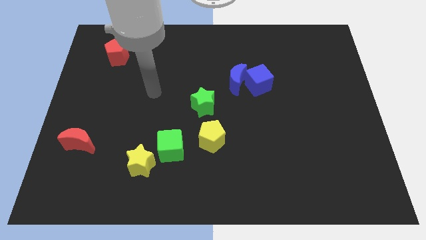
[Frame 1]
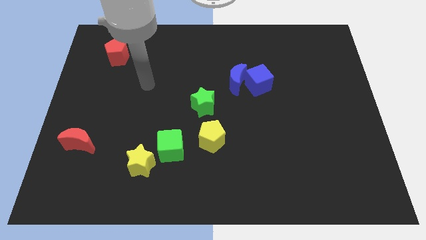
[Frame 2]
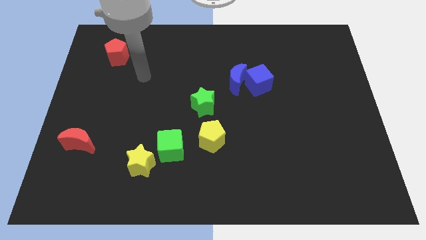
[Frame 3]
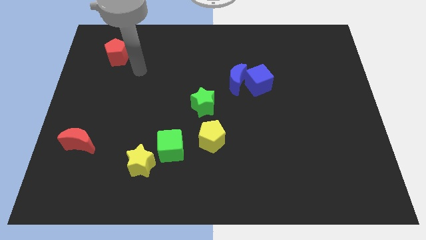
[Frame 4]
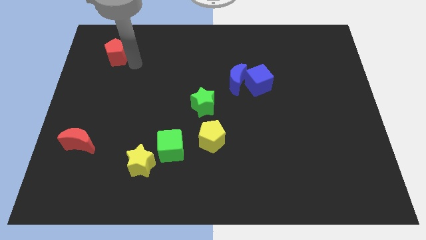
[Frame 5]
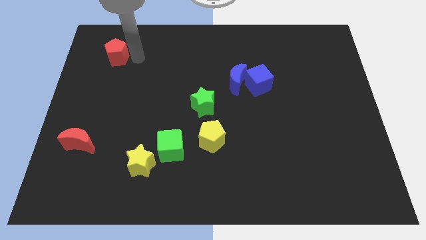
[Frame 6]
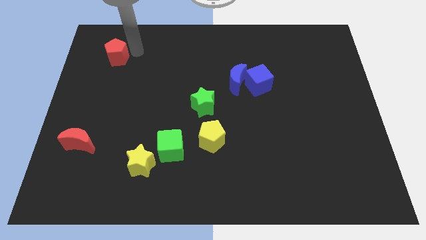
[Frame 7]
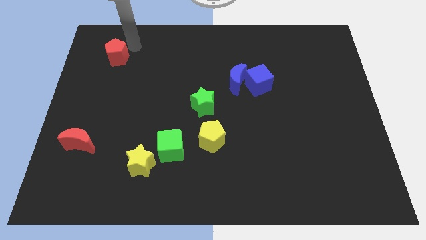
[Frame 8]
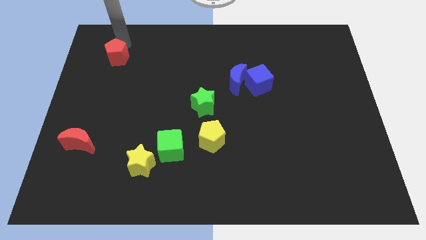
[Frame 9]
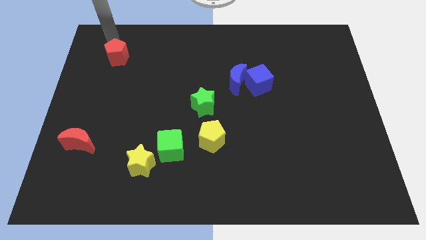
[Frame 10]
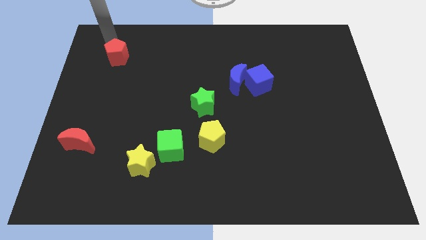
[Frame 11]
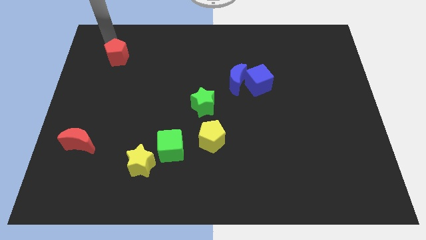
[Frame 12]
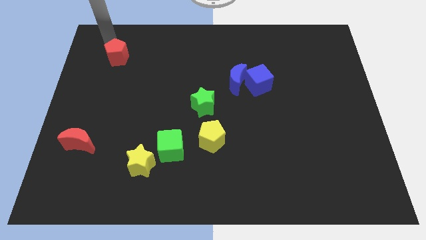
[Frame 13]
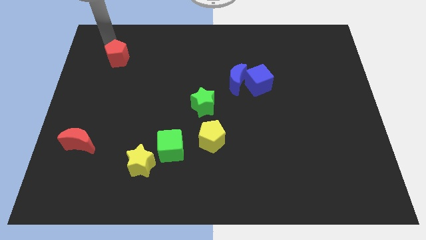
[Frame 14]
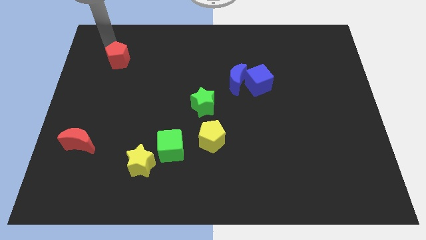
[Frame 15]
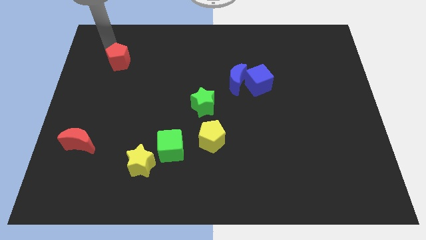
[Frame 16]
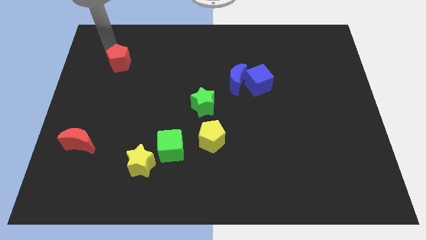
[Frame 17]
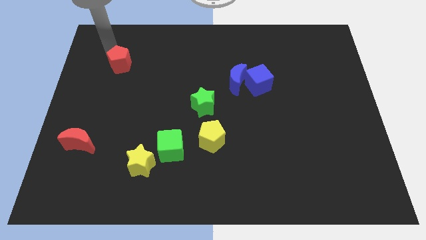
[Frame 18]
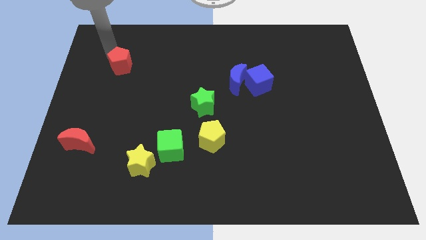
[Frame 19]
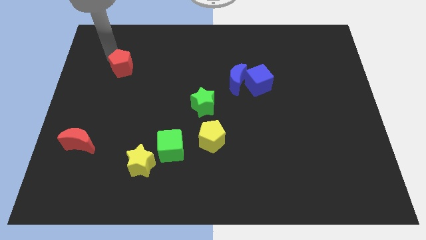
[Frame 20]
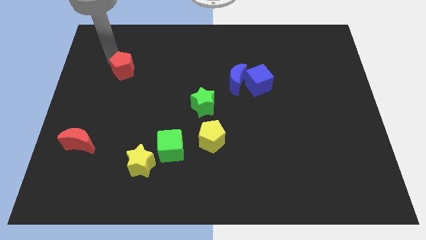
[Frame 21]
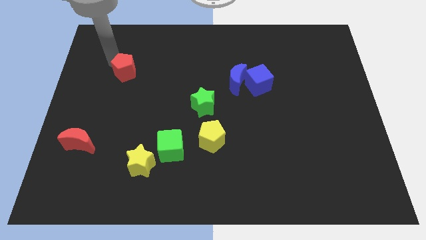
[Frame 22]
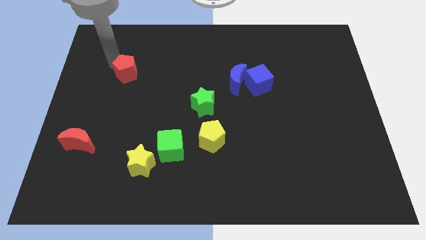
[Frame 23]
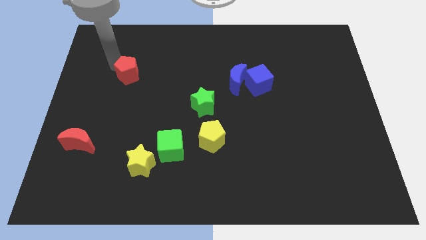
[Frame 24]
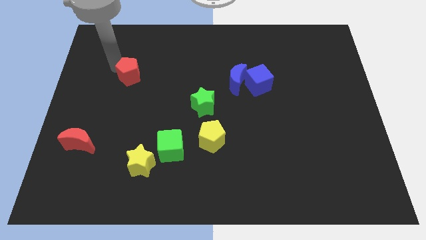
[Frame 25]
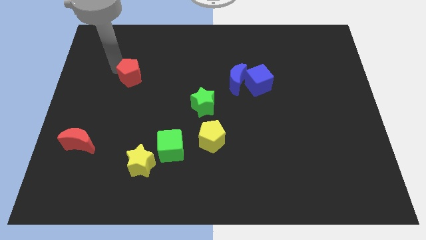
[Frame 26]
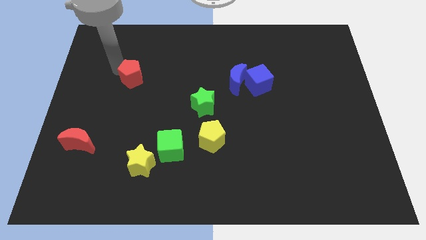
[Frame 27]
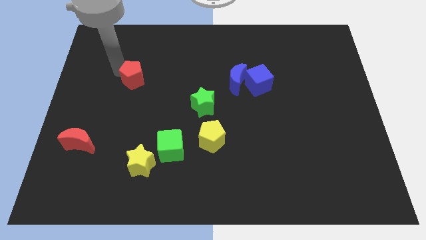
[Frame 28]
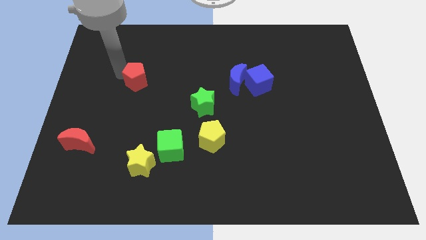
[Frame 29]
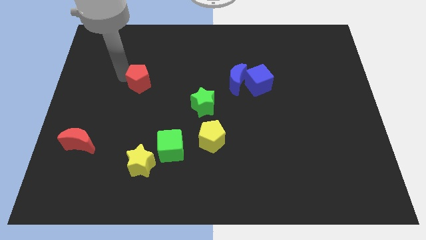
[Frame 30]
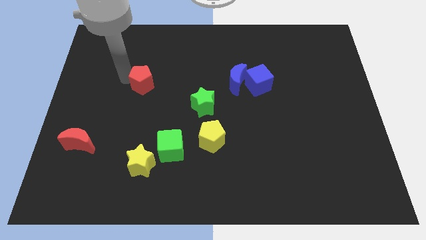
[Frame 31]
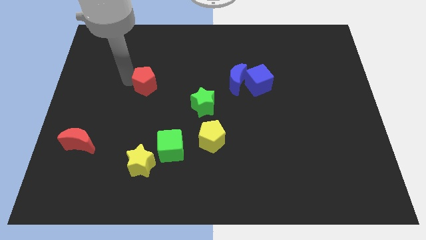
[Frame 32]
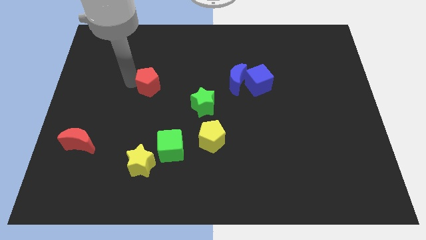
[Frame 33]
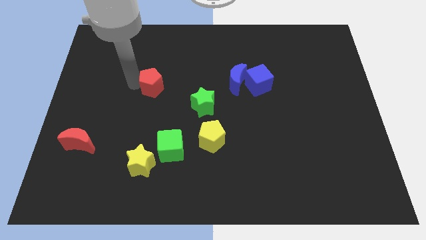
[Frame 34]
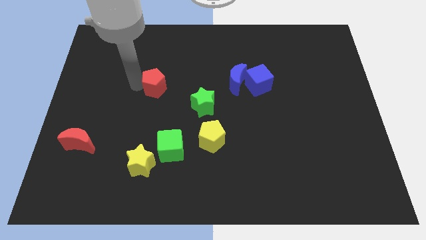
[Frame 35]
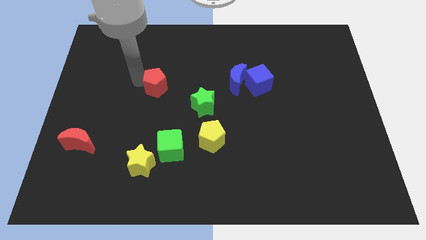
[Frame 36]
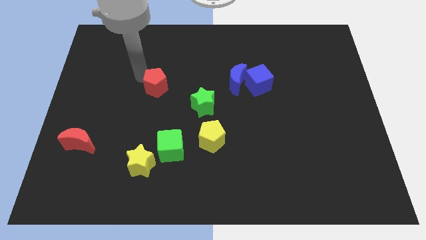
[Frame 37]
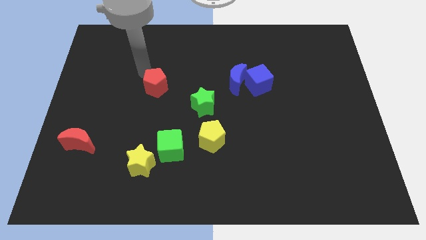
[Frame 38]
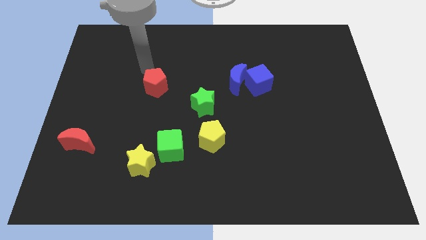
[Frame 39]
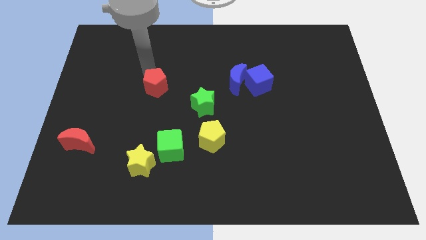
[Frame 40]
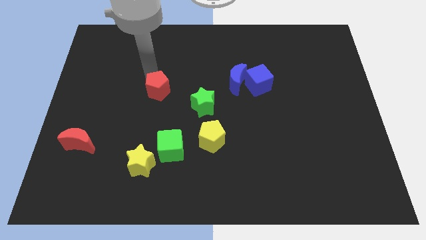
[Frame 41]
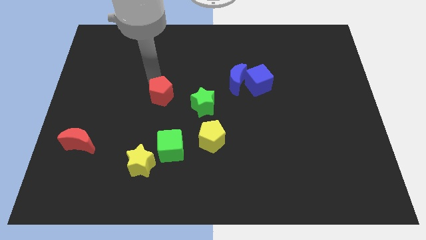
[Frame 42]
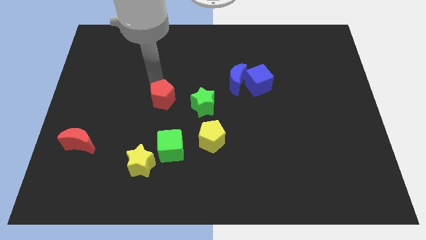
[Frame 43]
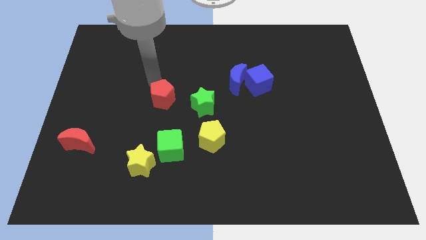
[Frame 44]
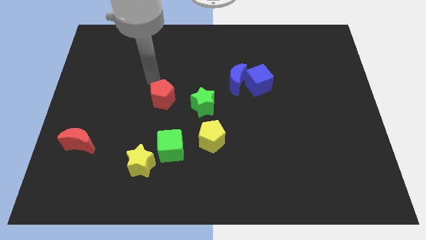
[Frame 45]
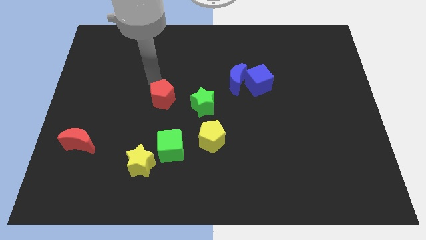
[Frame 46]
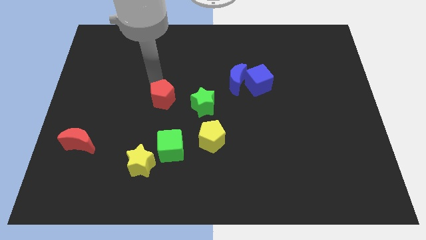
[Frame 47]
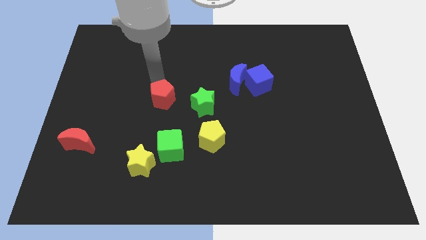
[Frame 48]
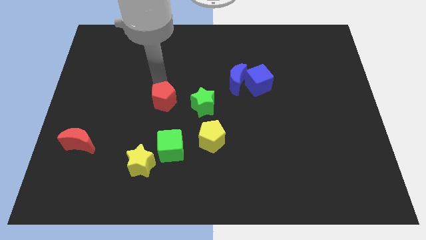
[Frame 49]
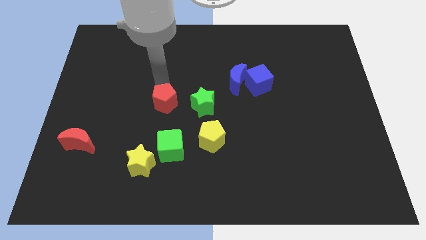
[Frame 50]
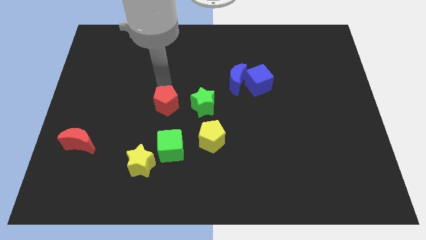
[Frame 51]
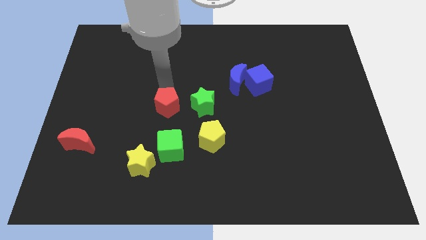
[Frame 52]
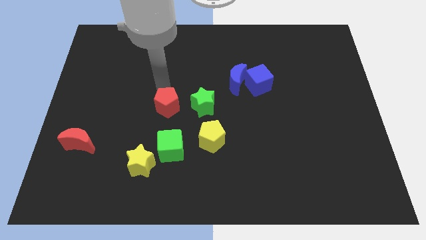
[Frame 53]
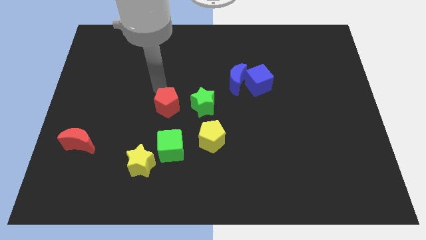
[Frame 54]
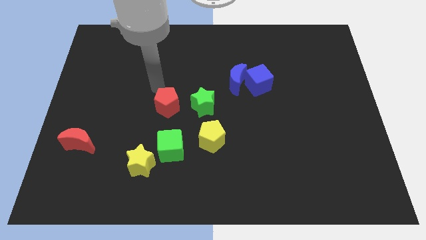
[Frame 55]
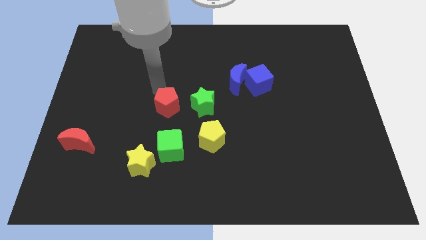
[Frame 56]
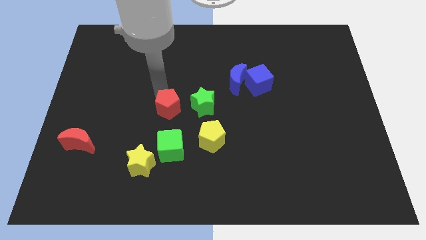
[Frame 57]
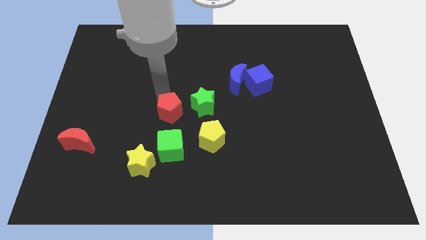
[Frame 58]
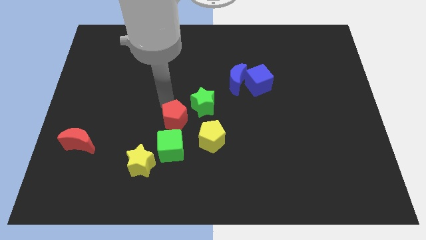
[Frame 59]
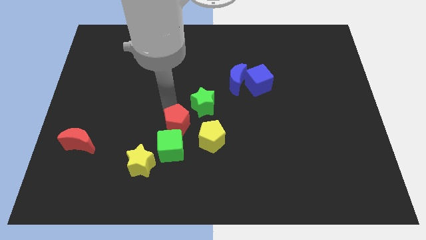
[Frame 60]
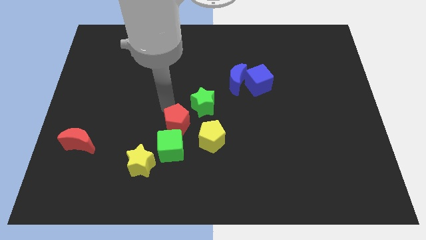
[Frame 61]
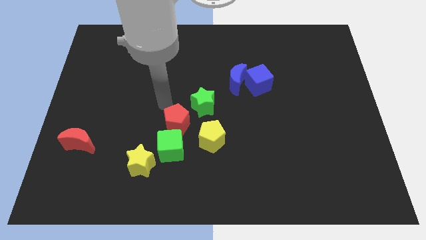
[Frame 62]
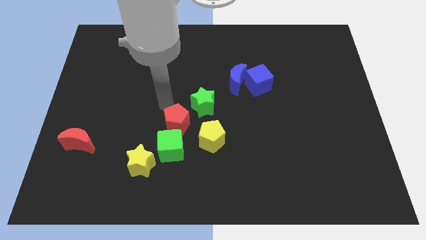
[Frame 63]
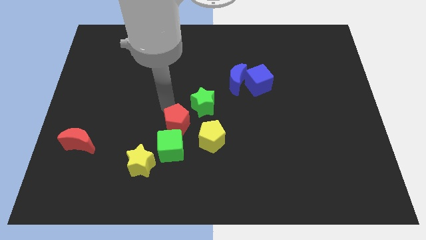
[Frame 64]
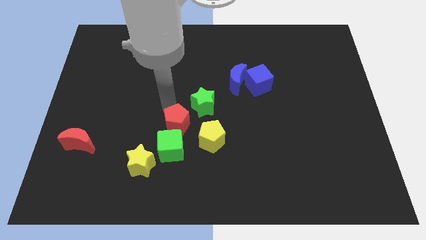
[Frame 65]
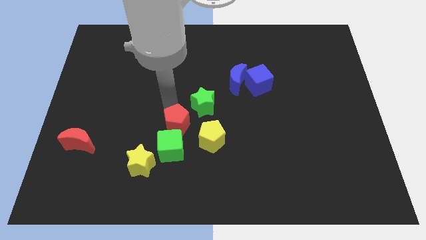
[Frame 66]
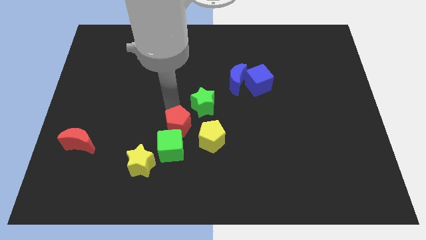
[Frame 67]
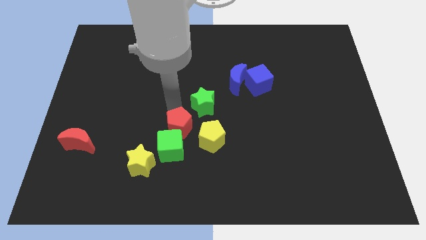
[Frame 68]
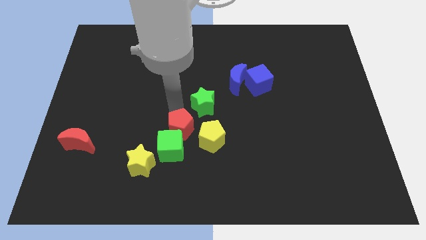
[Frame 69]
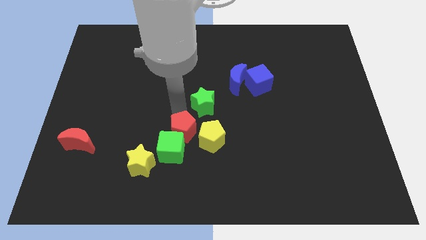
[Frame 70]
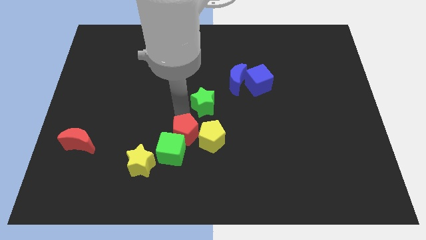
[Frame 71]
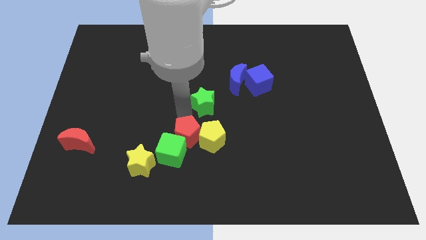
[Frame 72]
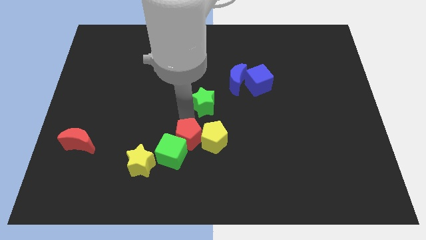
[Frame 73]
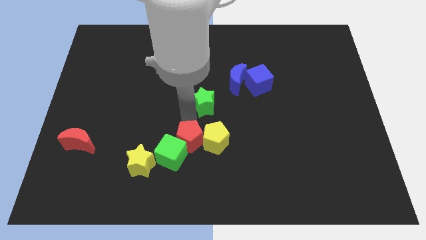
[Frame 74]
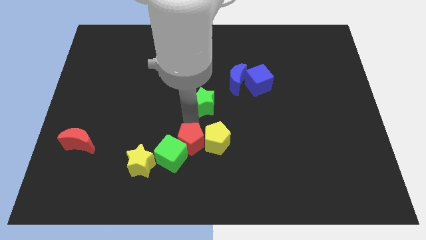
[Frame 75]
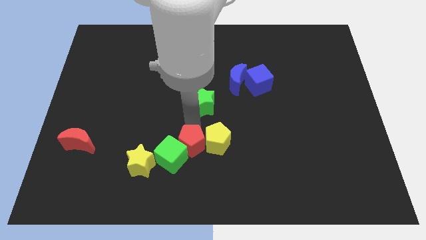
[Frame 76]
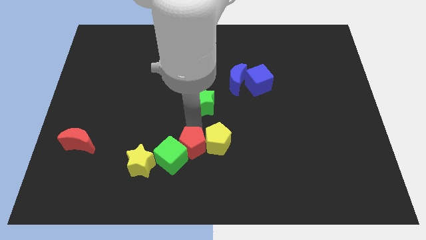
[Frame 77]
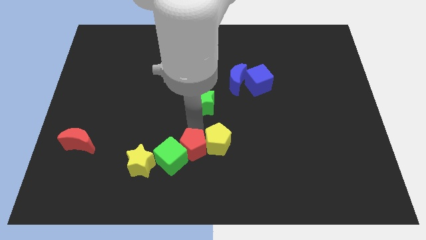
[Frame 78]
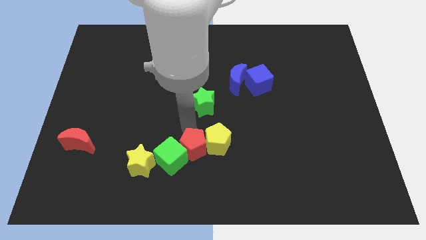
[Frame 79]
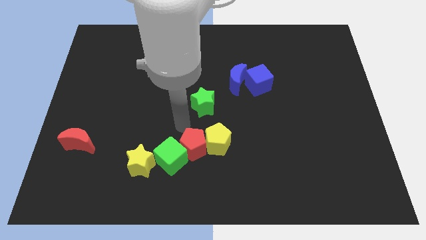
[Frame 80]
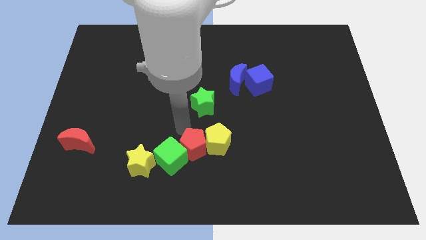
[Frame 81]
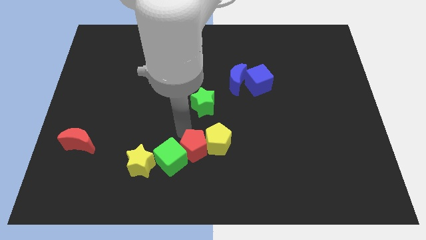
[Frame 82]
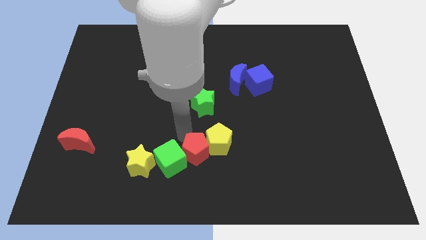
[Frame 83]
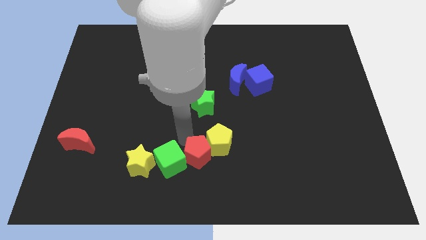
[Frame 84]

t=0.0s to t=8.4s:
push the red pentagon to the bottom
